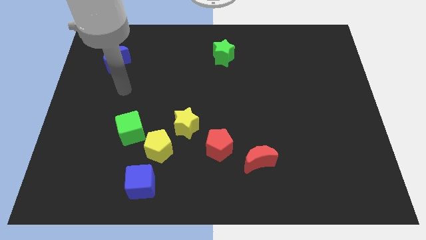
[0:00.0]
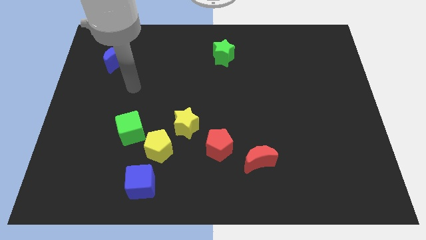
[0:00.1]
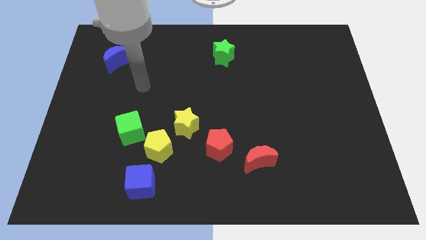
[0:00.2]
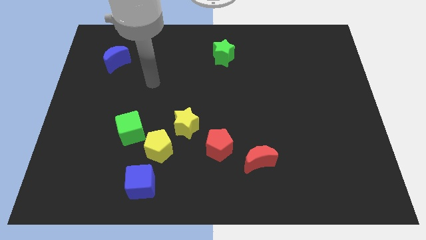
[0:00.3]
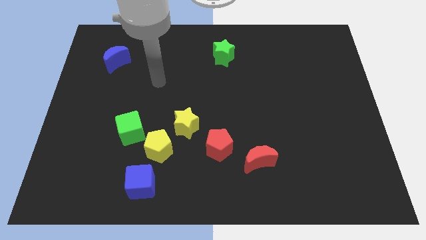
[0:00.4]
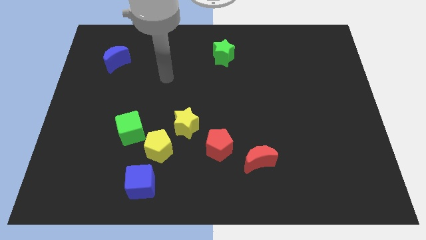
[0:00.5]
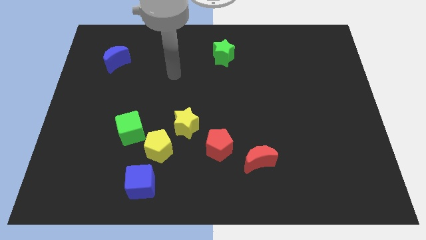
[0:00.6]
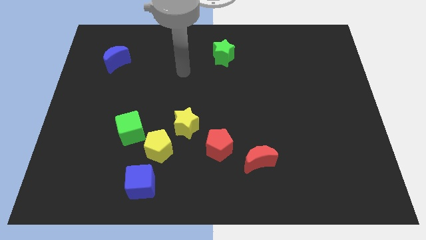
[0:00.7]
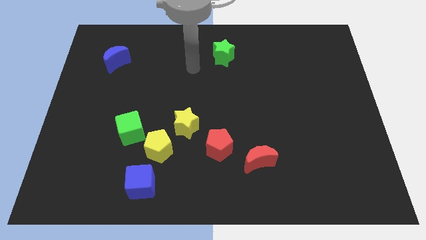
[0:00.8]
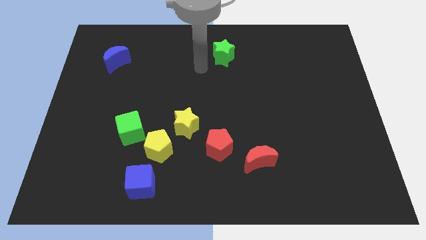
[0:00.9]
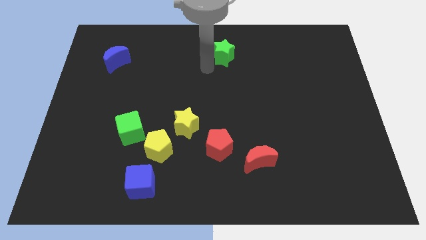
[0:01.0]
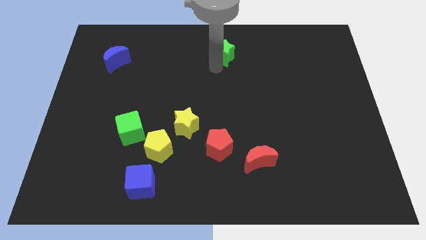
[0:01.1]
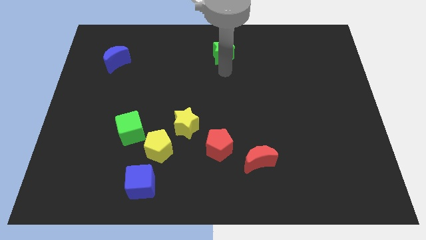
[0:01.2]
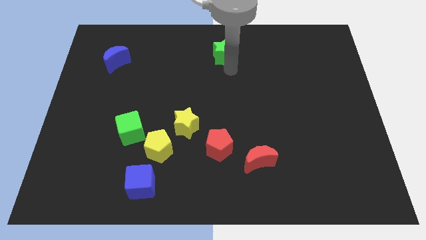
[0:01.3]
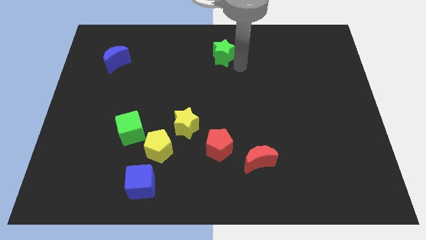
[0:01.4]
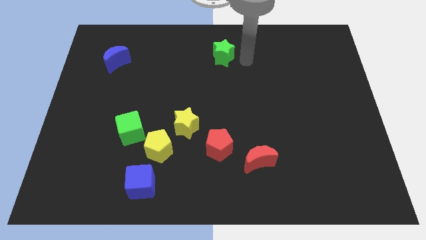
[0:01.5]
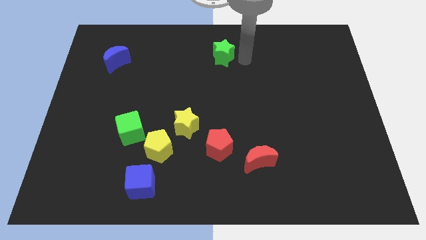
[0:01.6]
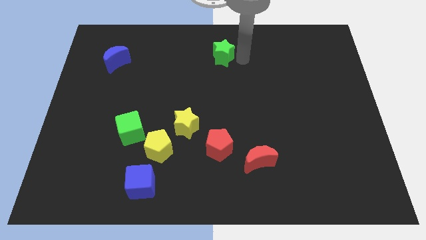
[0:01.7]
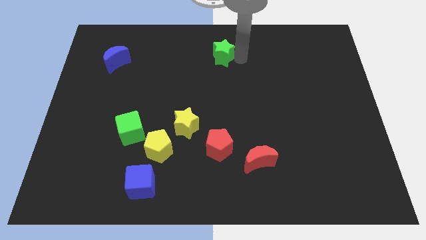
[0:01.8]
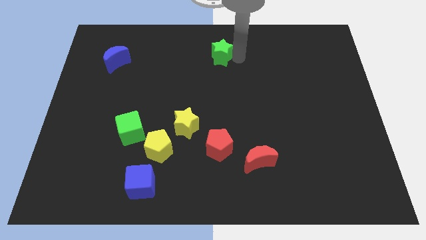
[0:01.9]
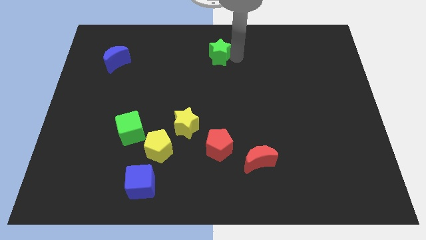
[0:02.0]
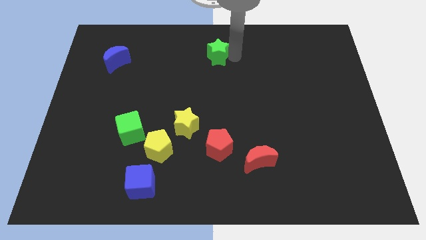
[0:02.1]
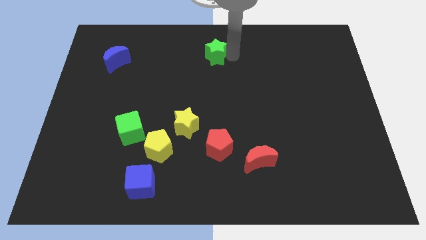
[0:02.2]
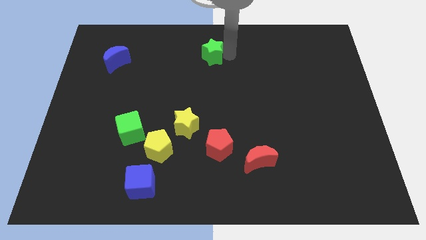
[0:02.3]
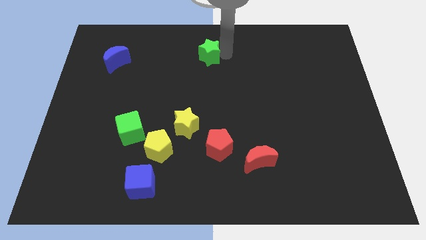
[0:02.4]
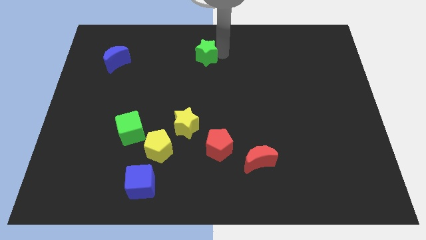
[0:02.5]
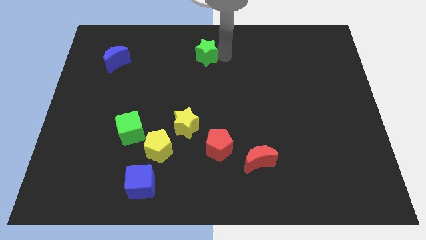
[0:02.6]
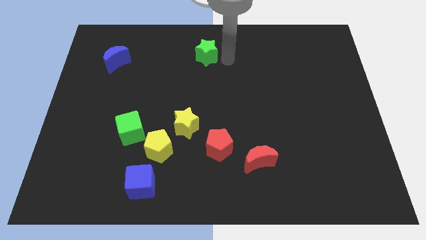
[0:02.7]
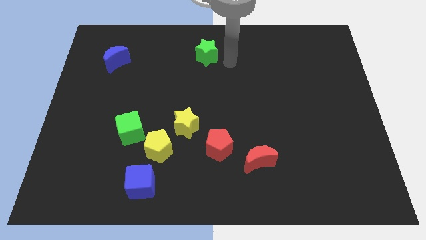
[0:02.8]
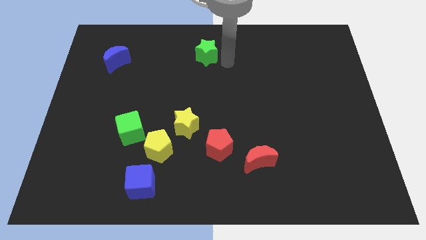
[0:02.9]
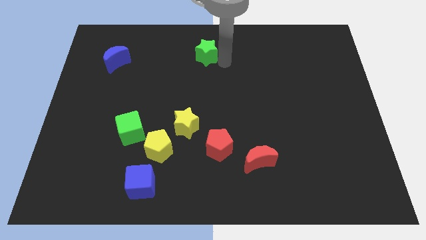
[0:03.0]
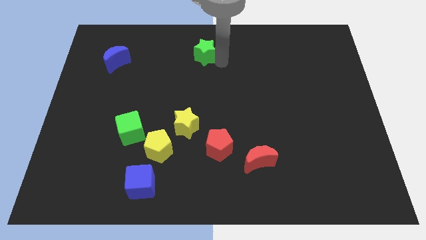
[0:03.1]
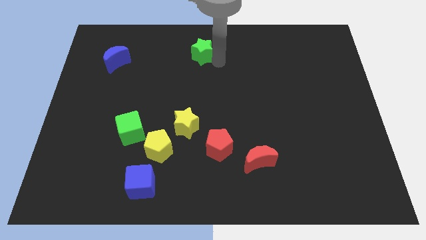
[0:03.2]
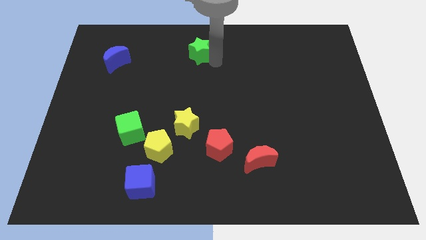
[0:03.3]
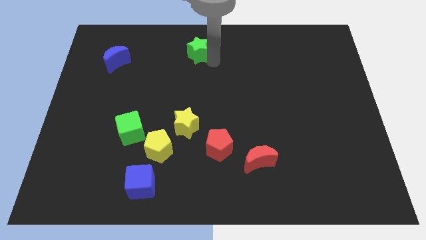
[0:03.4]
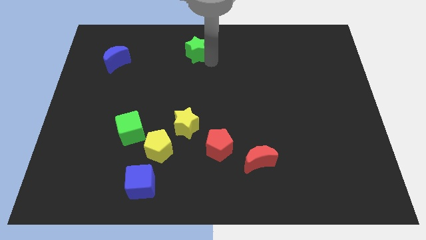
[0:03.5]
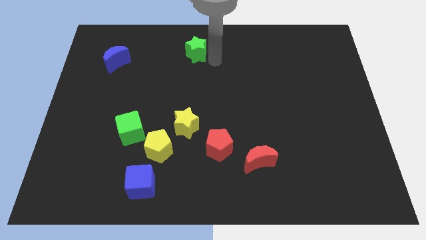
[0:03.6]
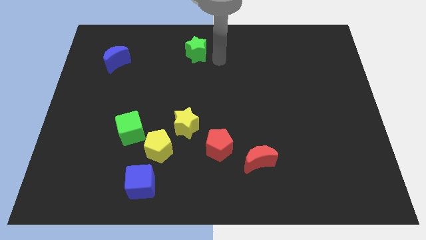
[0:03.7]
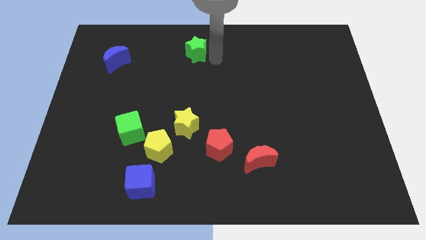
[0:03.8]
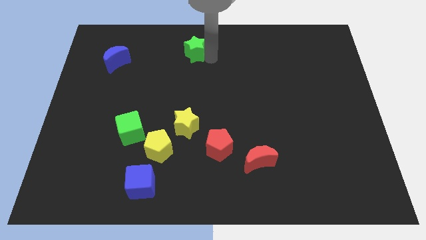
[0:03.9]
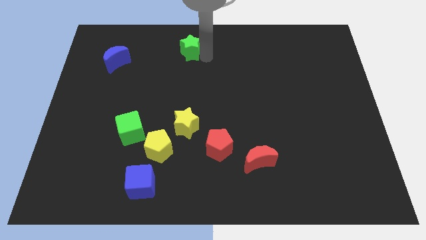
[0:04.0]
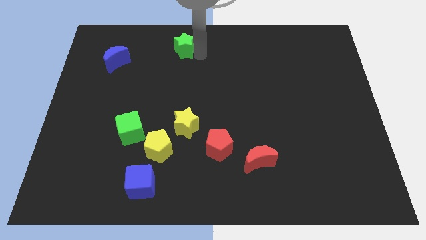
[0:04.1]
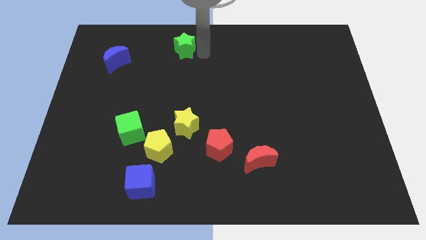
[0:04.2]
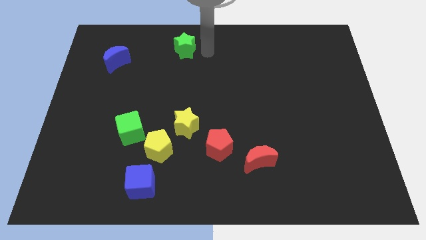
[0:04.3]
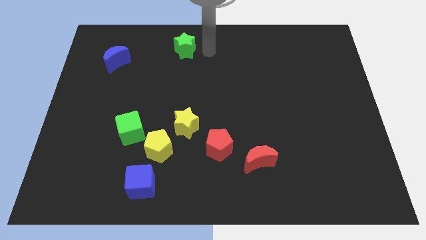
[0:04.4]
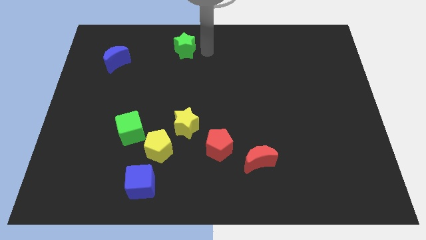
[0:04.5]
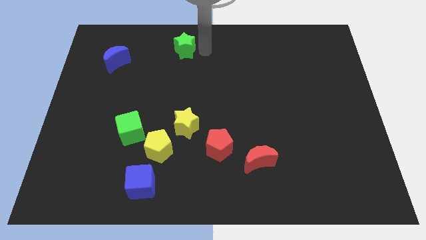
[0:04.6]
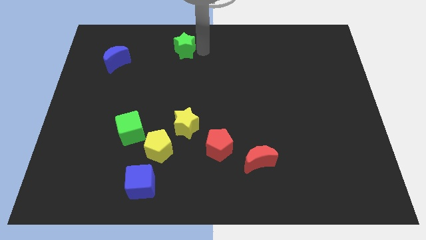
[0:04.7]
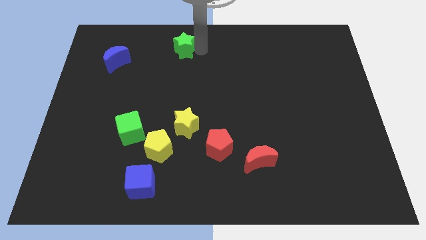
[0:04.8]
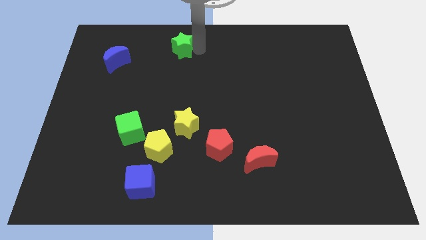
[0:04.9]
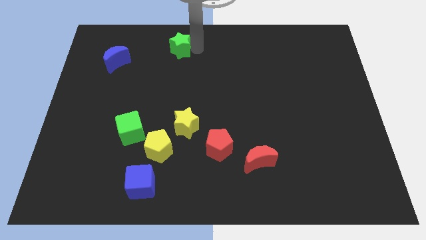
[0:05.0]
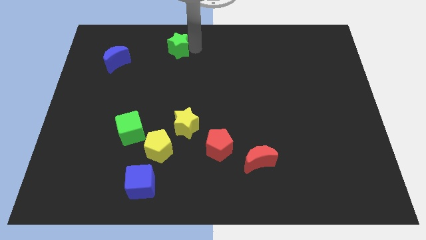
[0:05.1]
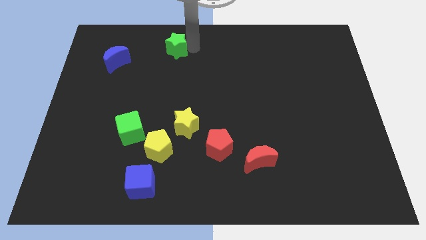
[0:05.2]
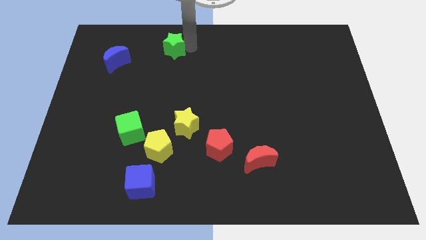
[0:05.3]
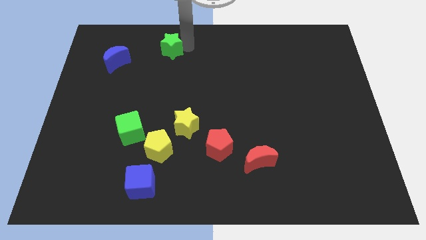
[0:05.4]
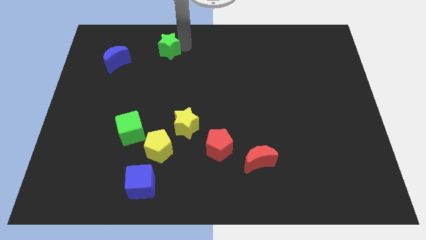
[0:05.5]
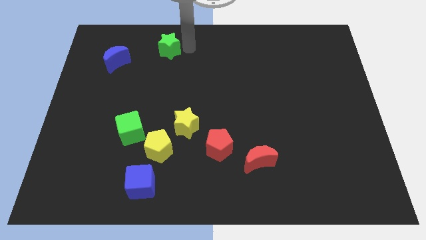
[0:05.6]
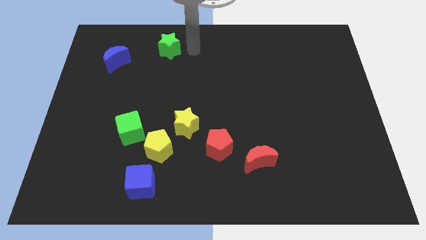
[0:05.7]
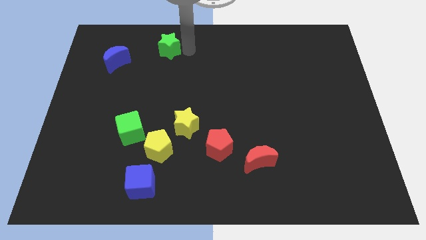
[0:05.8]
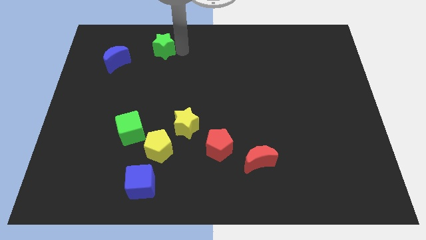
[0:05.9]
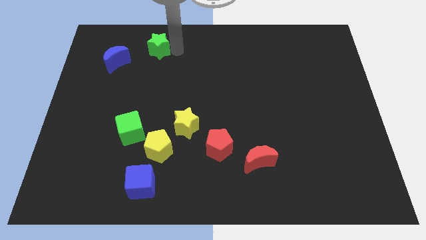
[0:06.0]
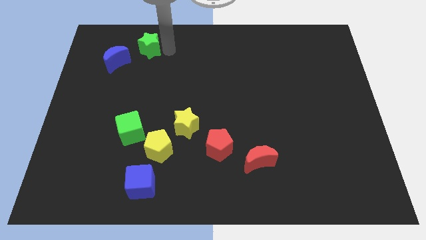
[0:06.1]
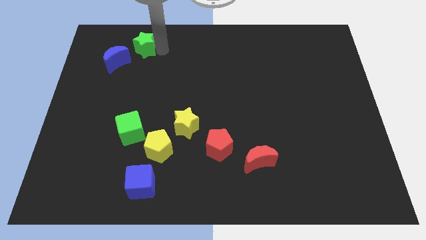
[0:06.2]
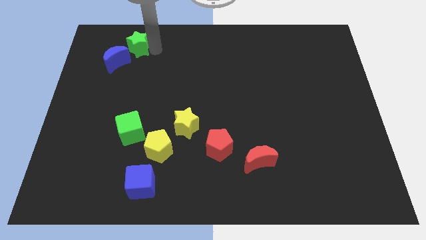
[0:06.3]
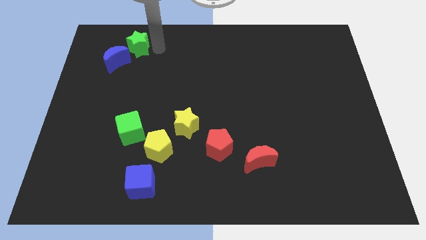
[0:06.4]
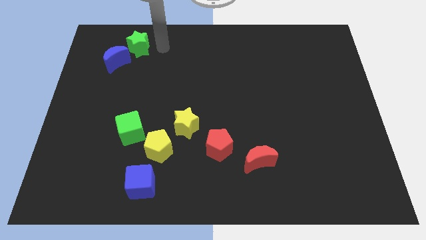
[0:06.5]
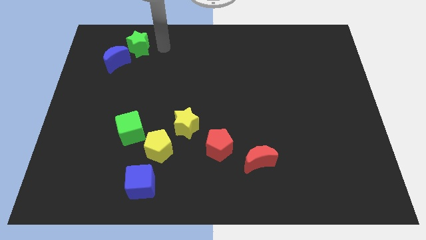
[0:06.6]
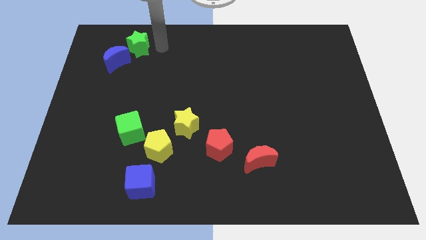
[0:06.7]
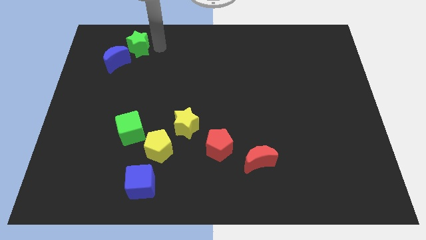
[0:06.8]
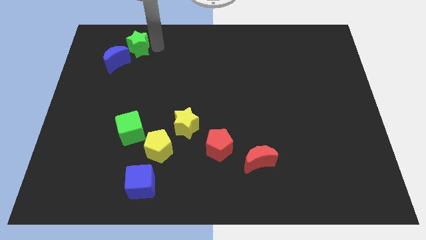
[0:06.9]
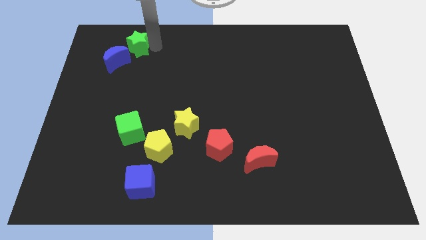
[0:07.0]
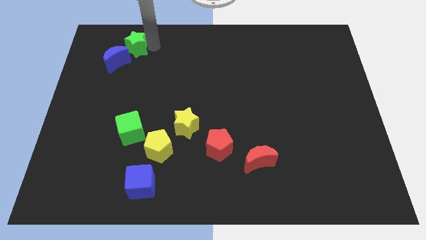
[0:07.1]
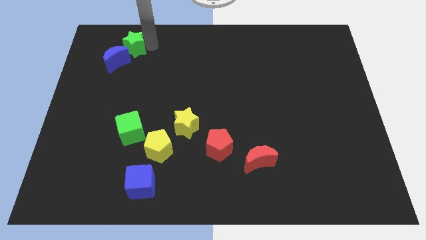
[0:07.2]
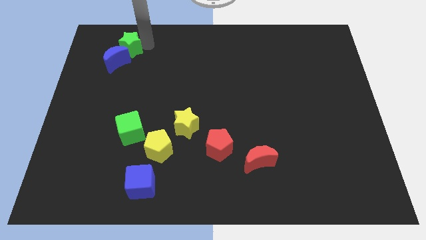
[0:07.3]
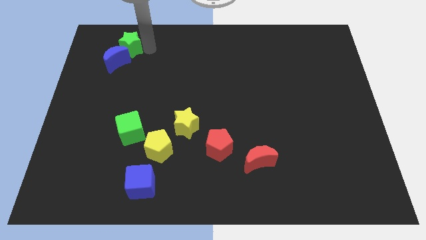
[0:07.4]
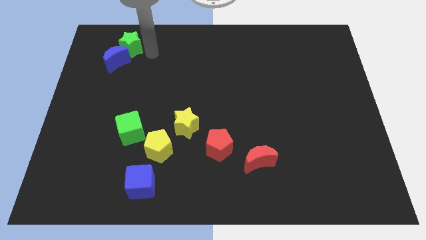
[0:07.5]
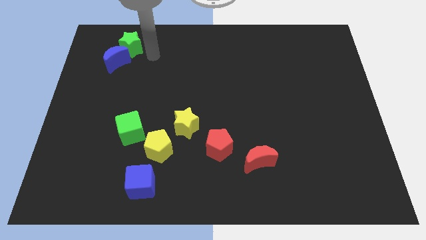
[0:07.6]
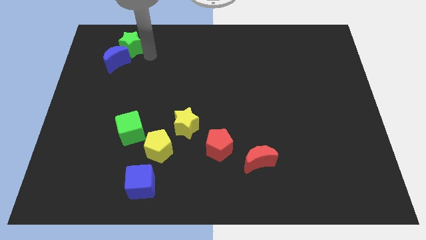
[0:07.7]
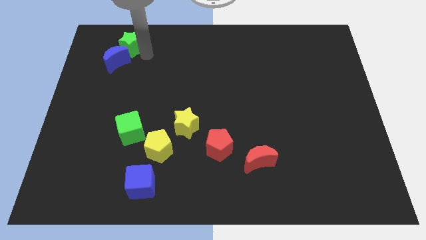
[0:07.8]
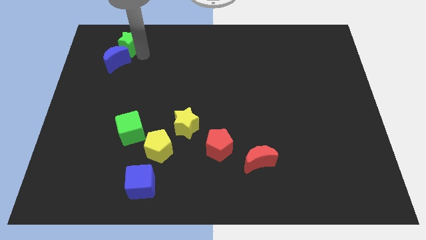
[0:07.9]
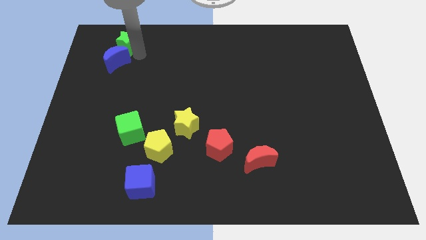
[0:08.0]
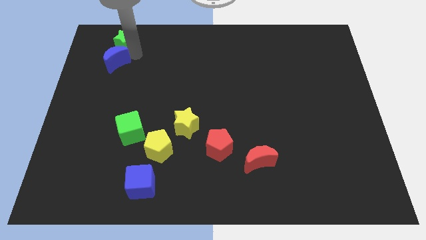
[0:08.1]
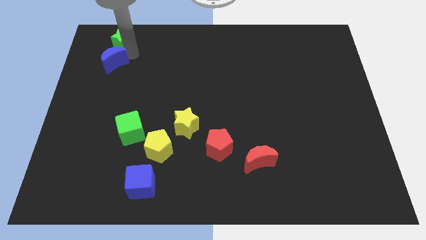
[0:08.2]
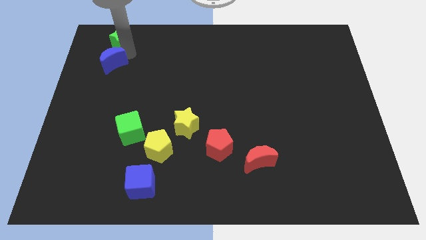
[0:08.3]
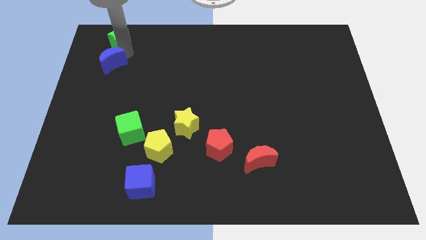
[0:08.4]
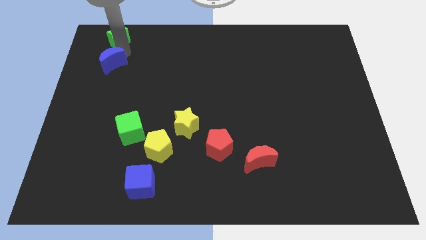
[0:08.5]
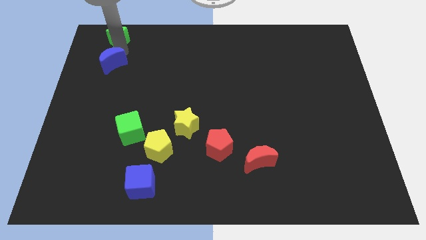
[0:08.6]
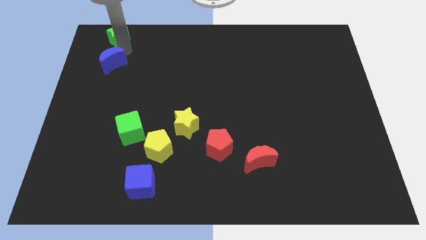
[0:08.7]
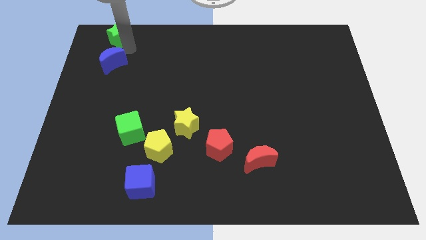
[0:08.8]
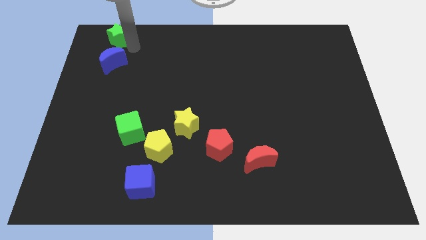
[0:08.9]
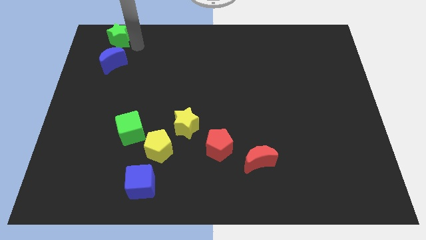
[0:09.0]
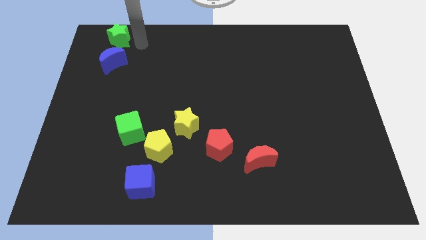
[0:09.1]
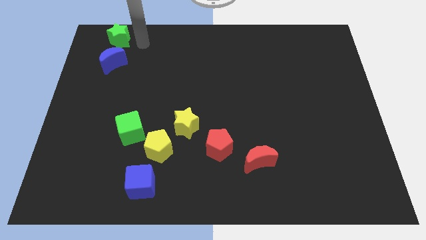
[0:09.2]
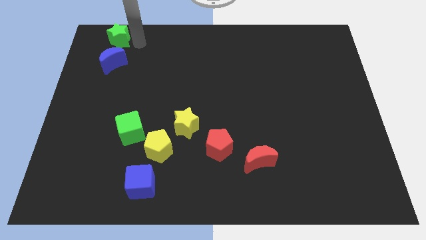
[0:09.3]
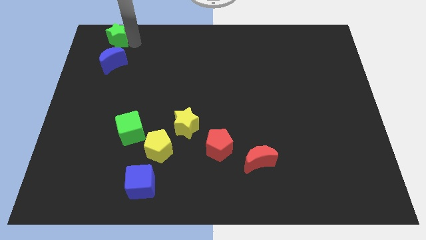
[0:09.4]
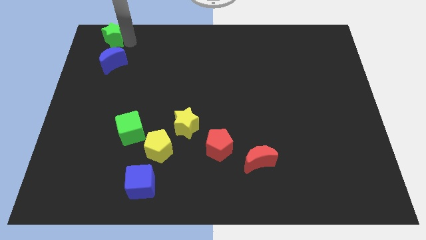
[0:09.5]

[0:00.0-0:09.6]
put the green star to the top left corner
